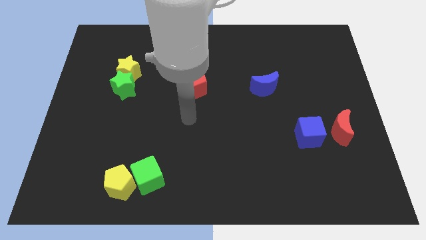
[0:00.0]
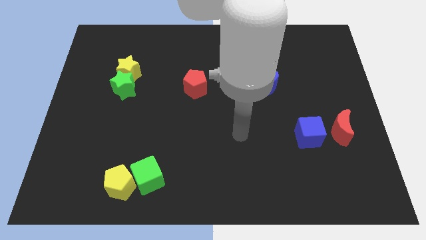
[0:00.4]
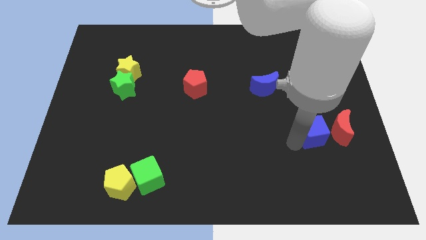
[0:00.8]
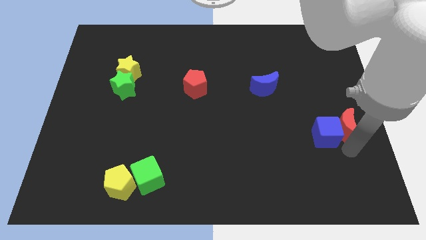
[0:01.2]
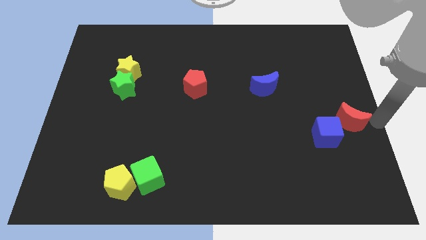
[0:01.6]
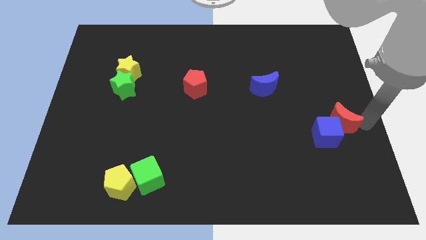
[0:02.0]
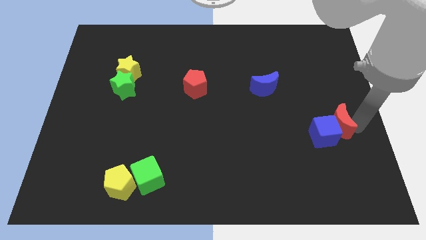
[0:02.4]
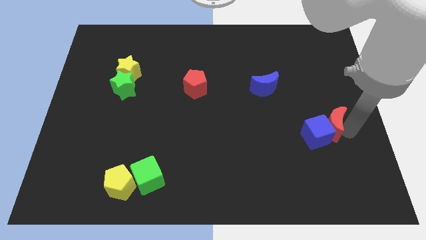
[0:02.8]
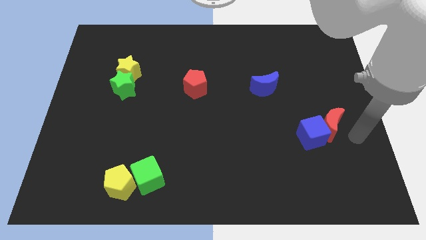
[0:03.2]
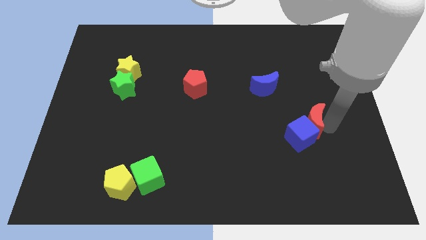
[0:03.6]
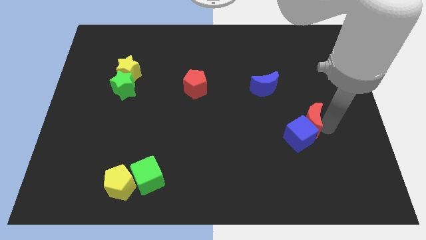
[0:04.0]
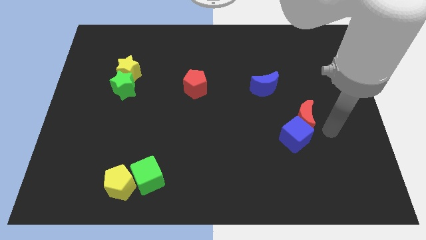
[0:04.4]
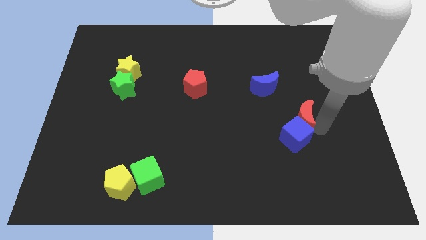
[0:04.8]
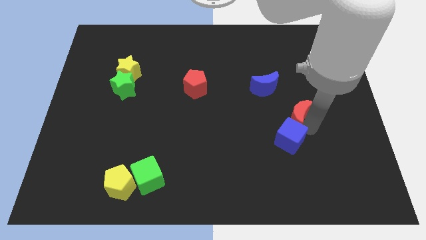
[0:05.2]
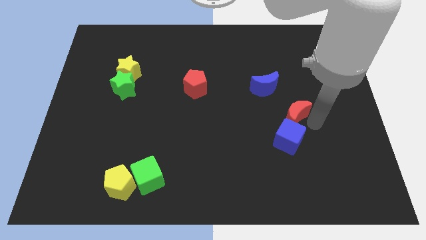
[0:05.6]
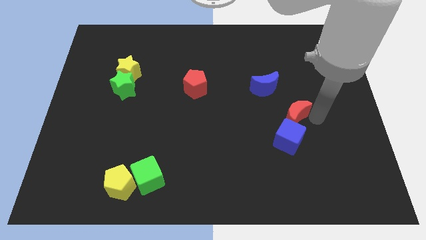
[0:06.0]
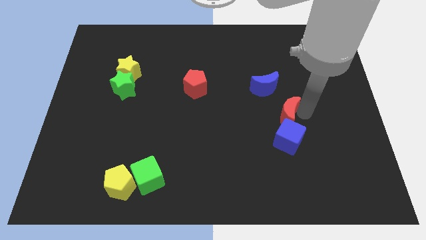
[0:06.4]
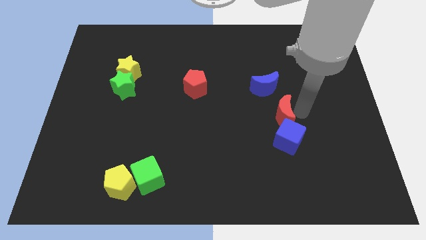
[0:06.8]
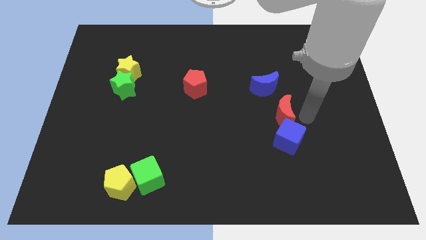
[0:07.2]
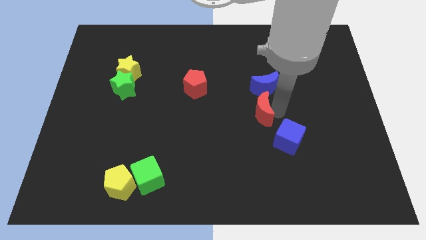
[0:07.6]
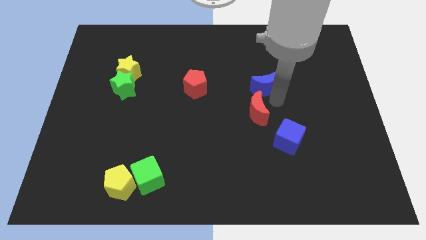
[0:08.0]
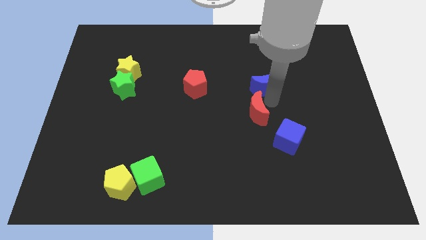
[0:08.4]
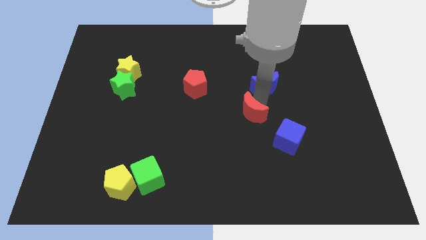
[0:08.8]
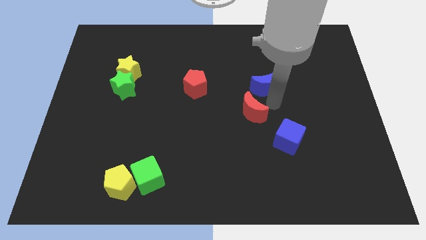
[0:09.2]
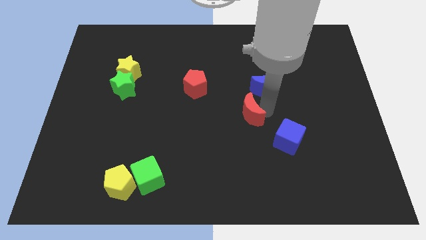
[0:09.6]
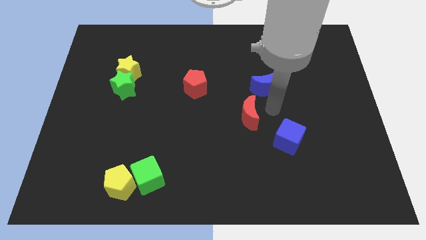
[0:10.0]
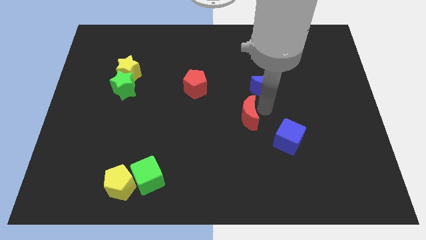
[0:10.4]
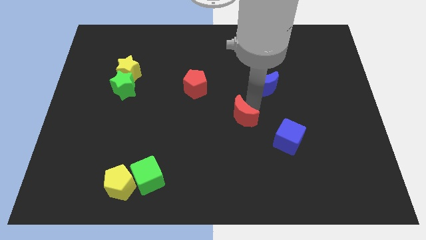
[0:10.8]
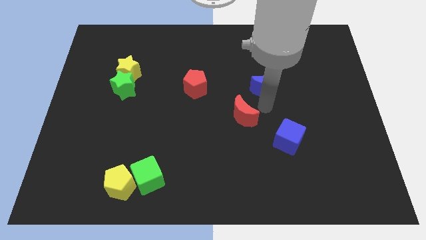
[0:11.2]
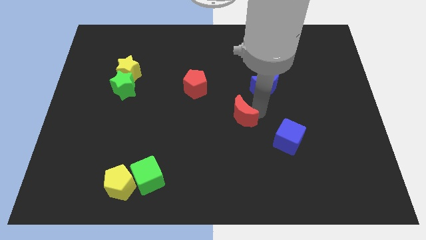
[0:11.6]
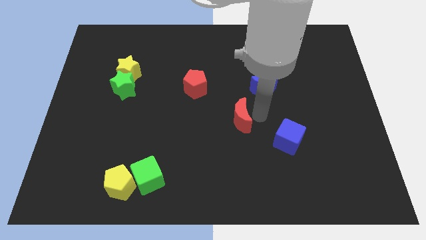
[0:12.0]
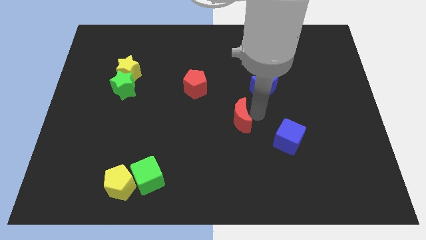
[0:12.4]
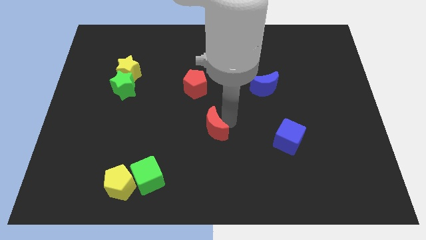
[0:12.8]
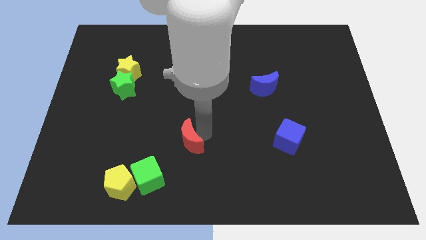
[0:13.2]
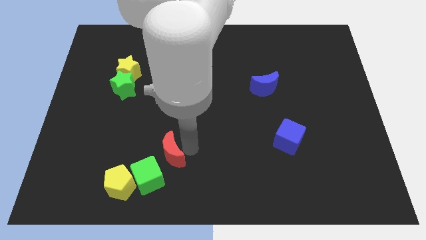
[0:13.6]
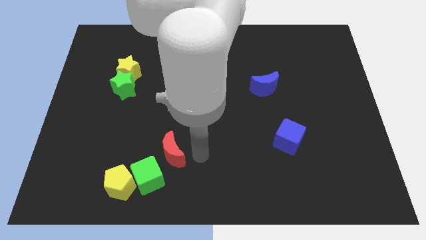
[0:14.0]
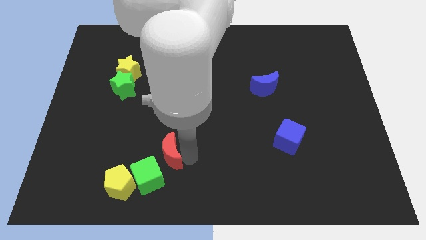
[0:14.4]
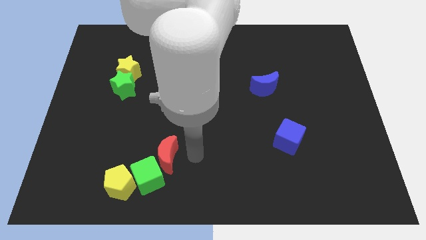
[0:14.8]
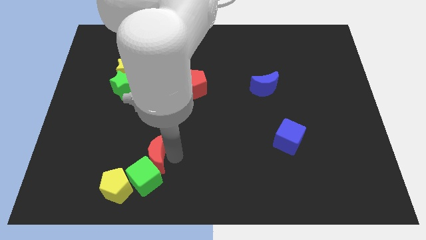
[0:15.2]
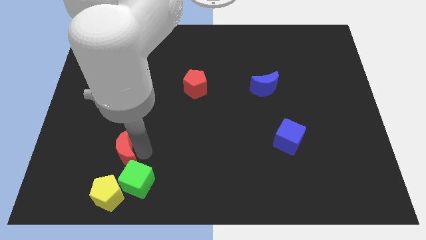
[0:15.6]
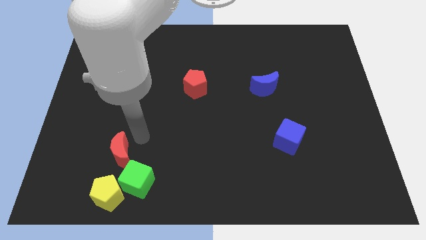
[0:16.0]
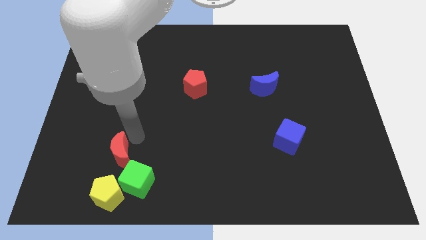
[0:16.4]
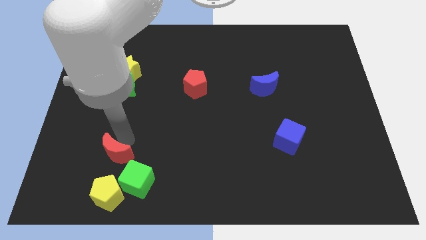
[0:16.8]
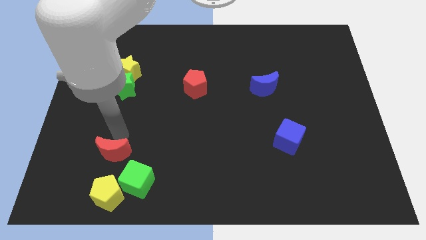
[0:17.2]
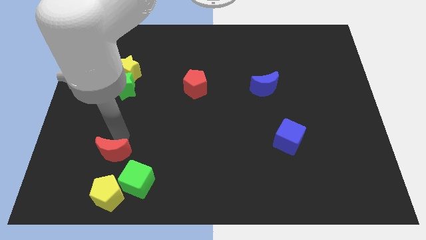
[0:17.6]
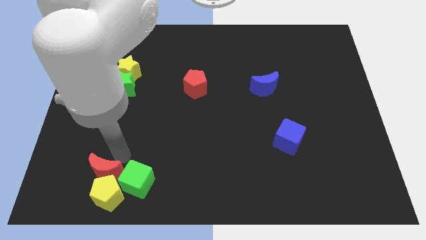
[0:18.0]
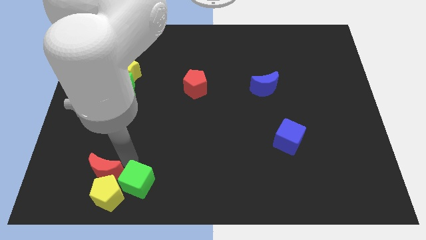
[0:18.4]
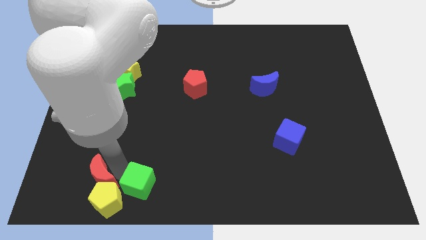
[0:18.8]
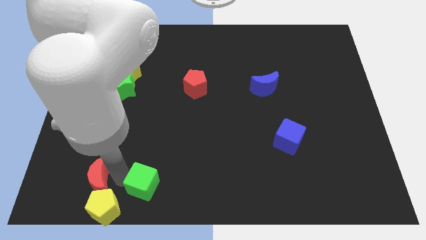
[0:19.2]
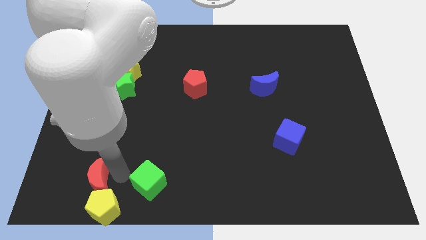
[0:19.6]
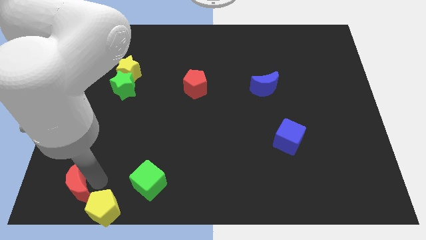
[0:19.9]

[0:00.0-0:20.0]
move the red moon to the bottom left of the board

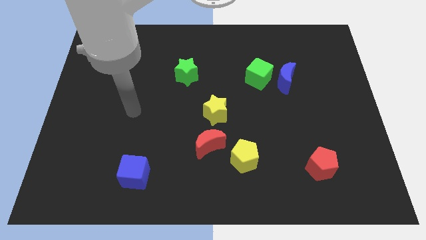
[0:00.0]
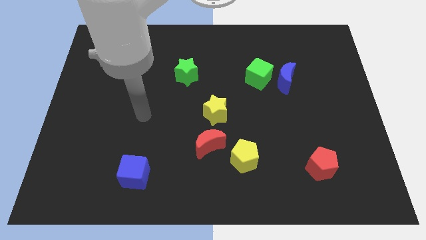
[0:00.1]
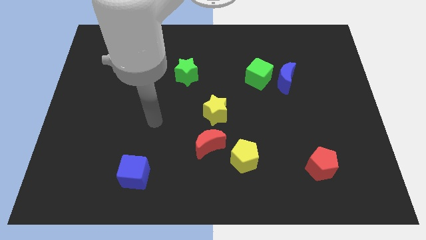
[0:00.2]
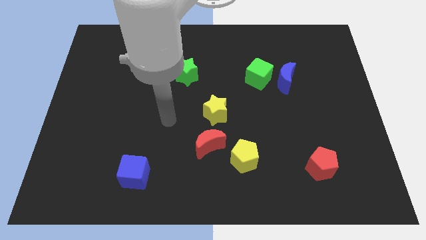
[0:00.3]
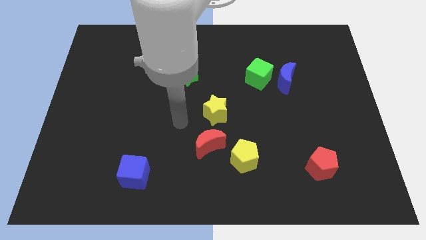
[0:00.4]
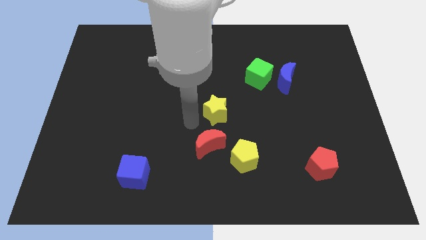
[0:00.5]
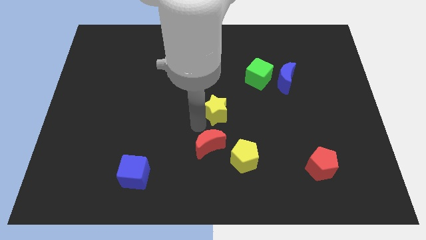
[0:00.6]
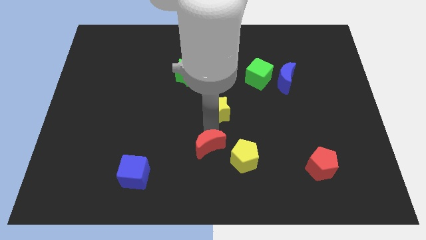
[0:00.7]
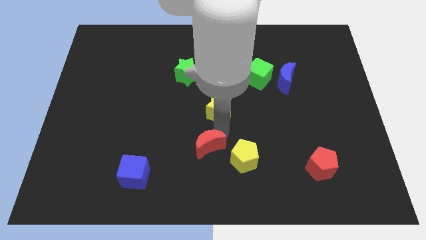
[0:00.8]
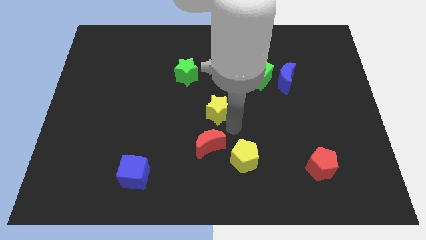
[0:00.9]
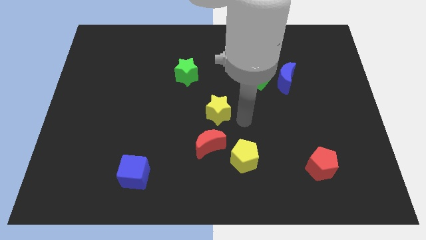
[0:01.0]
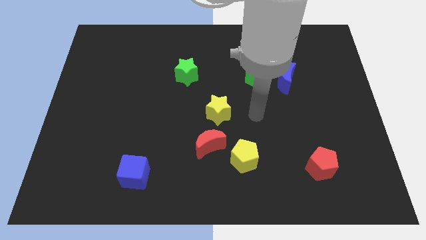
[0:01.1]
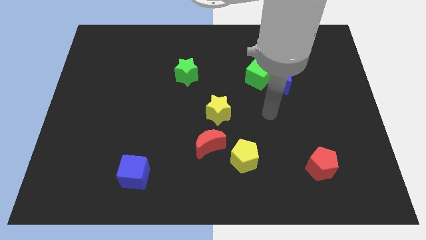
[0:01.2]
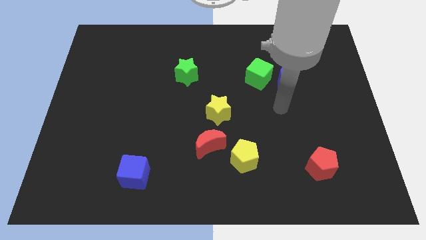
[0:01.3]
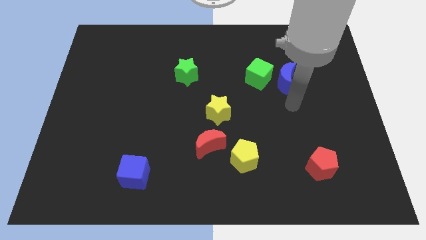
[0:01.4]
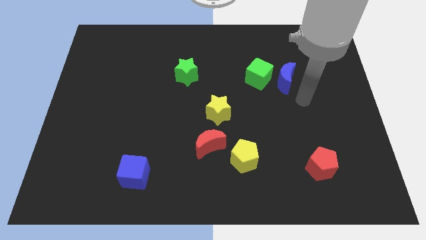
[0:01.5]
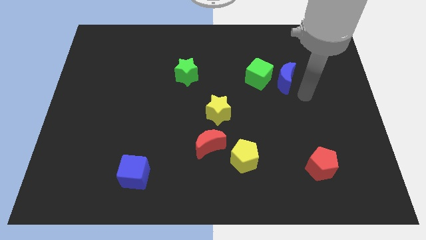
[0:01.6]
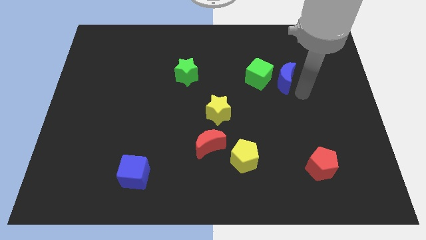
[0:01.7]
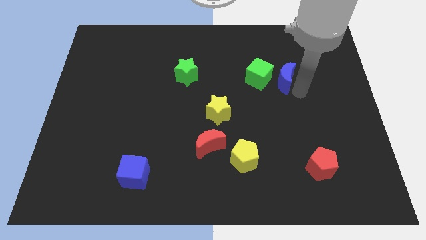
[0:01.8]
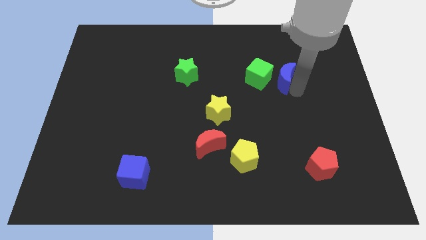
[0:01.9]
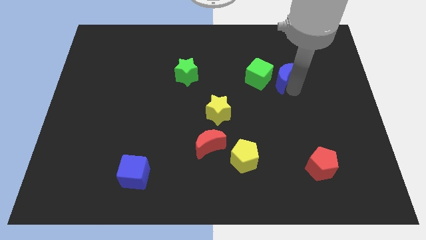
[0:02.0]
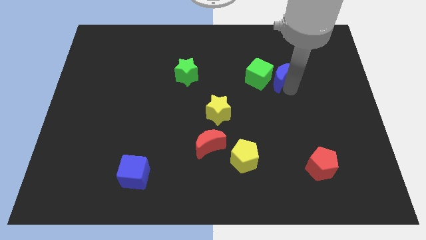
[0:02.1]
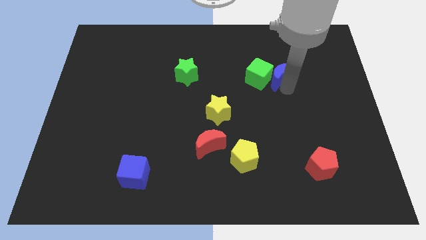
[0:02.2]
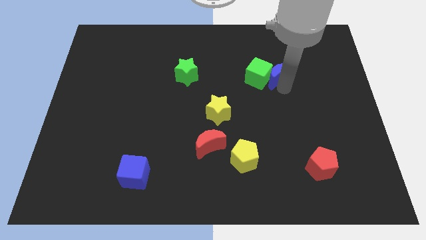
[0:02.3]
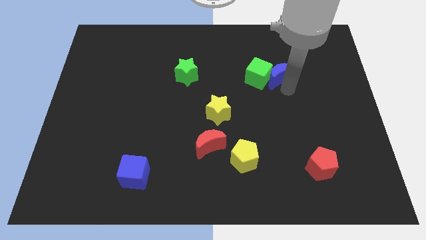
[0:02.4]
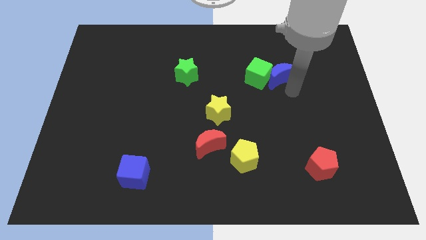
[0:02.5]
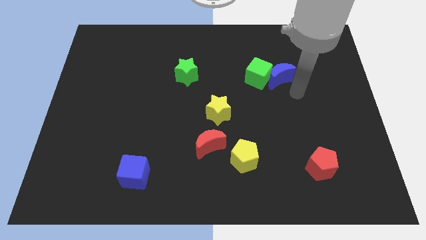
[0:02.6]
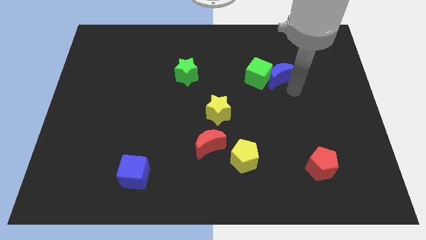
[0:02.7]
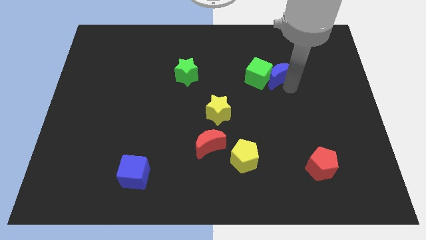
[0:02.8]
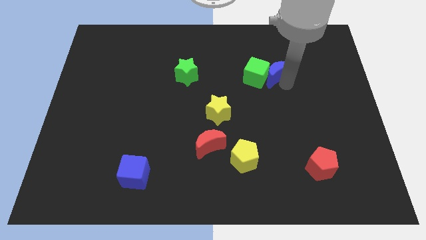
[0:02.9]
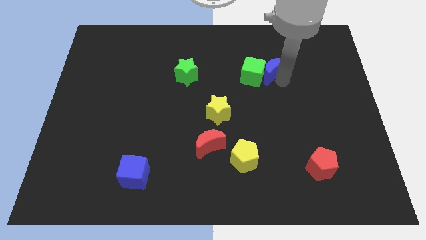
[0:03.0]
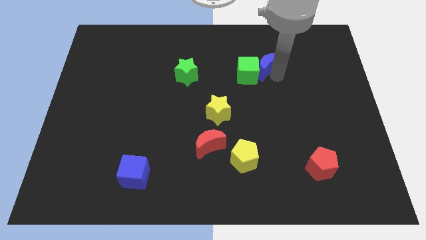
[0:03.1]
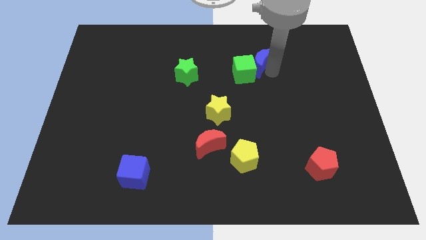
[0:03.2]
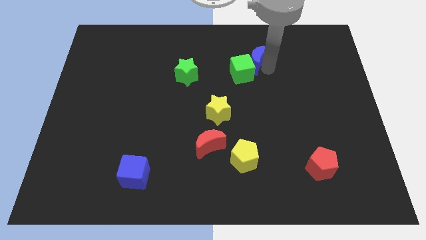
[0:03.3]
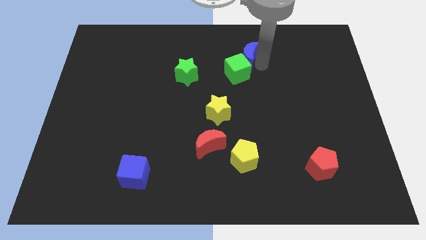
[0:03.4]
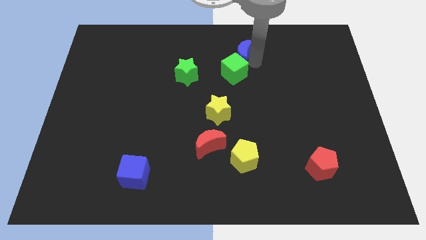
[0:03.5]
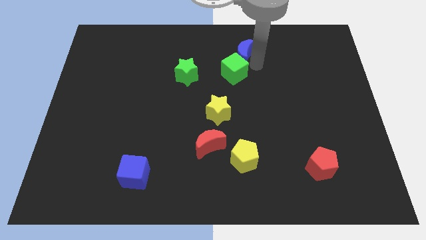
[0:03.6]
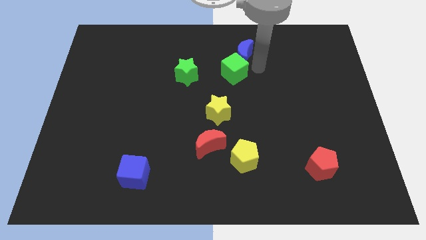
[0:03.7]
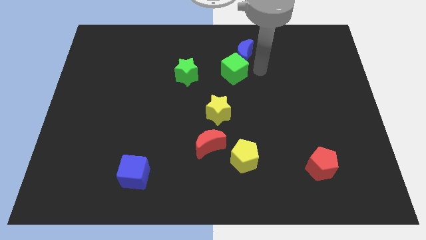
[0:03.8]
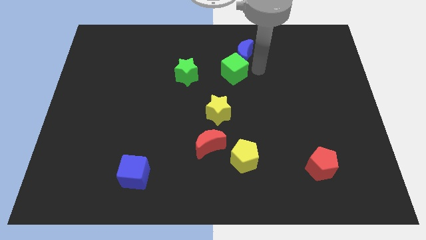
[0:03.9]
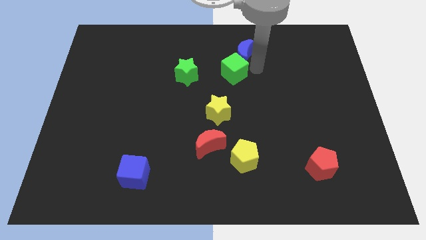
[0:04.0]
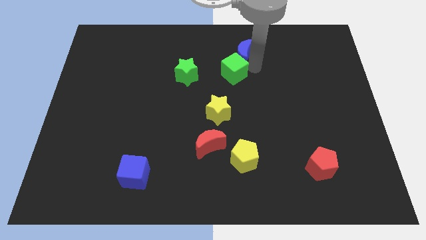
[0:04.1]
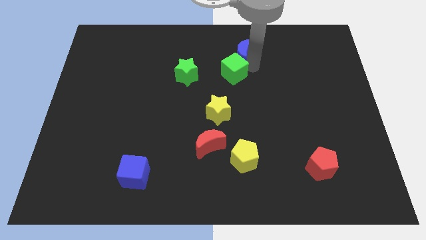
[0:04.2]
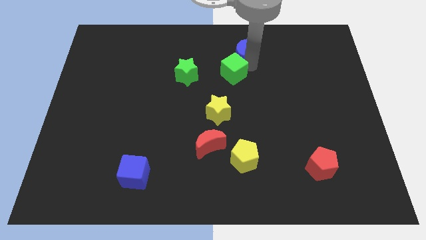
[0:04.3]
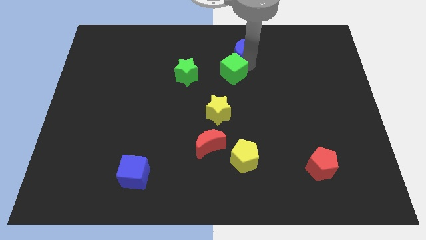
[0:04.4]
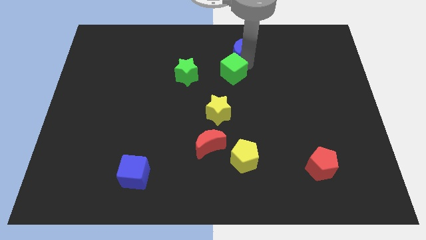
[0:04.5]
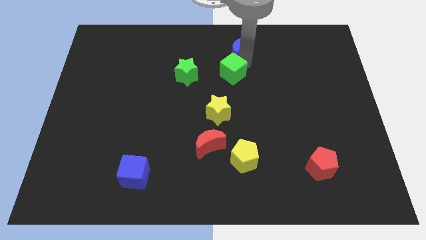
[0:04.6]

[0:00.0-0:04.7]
move the blue moon to the top side
